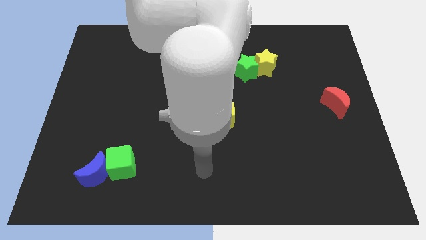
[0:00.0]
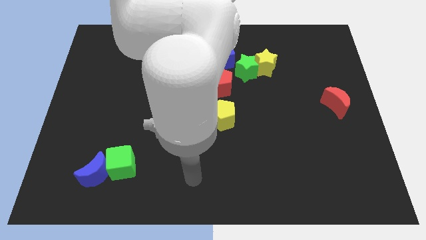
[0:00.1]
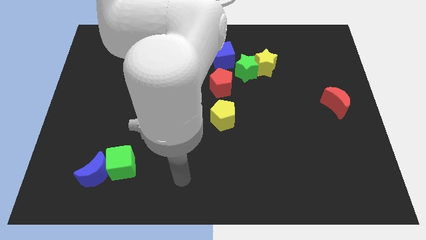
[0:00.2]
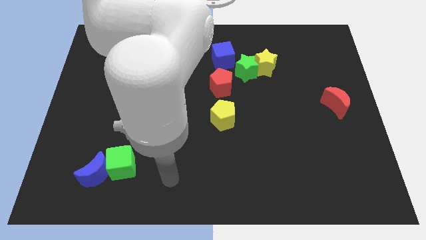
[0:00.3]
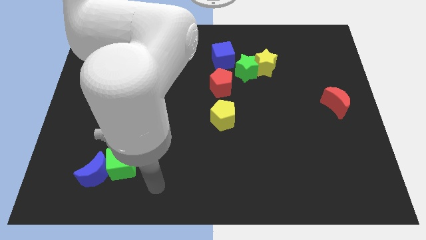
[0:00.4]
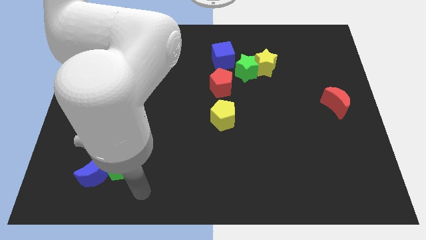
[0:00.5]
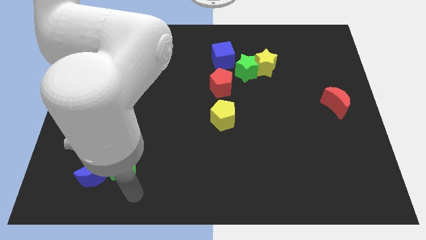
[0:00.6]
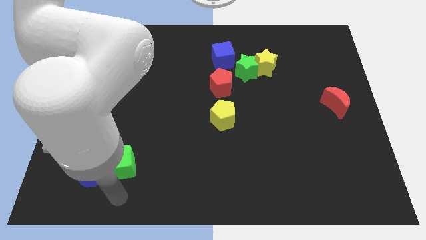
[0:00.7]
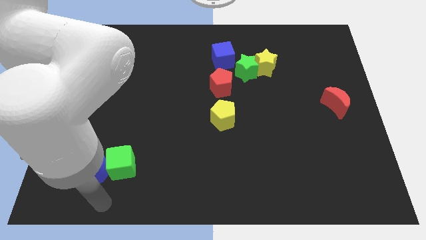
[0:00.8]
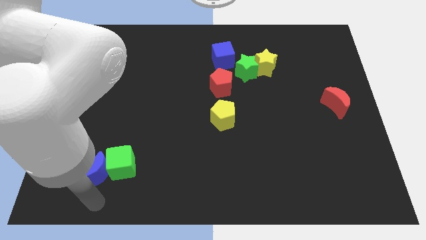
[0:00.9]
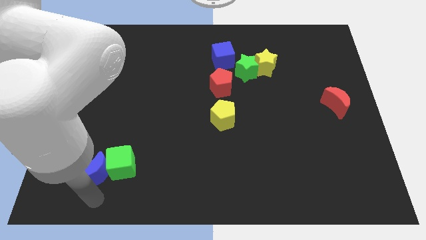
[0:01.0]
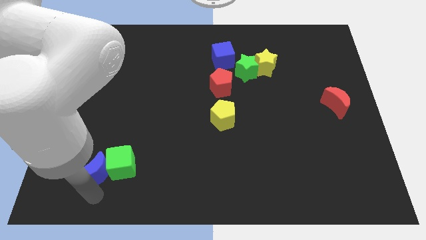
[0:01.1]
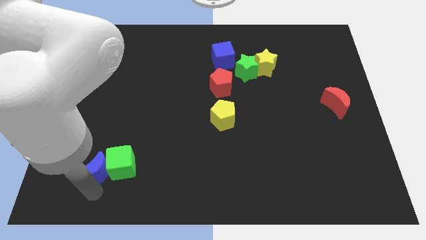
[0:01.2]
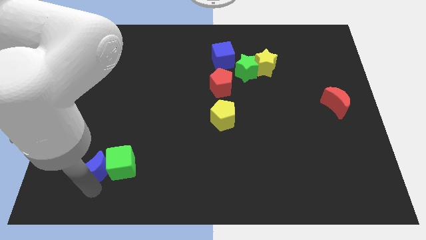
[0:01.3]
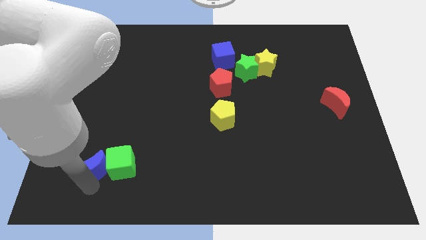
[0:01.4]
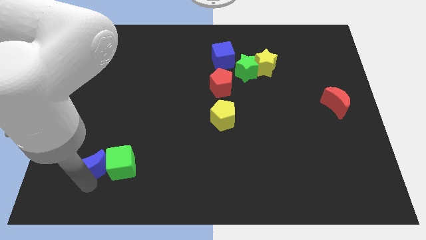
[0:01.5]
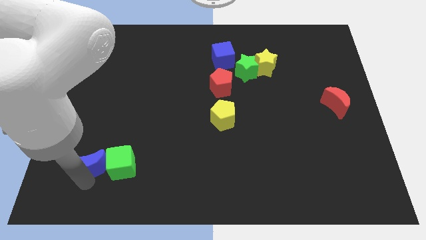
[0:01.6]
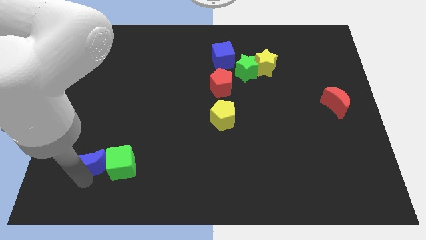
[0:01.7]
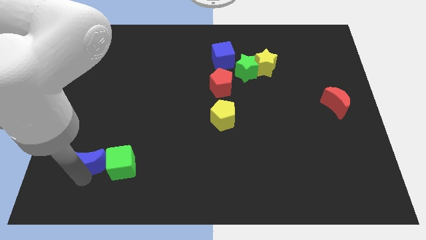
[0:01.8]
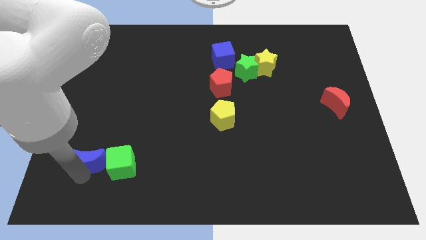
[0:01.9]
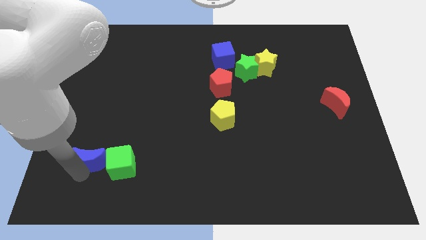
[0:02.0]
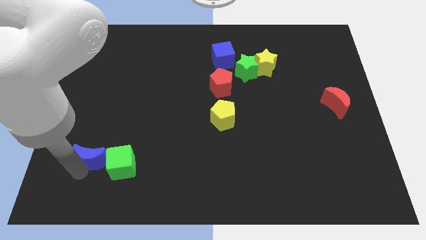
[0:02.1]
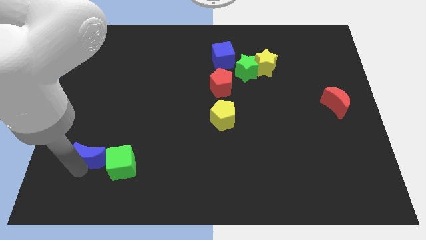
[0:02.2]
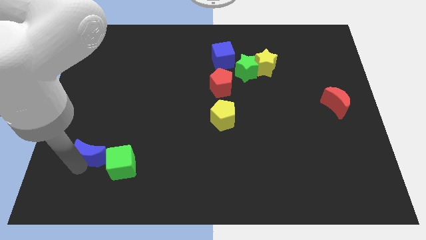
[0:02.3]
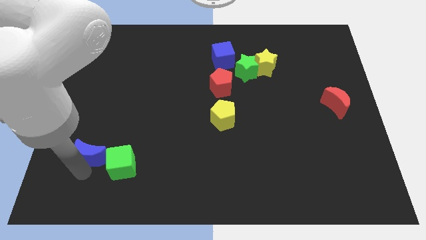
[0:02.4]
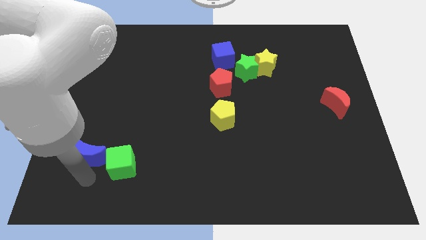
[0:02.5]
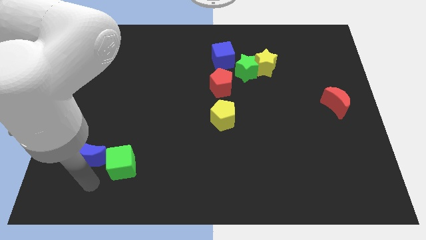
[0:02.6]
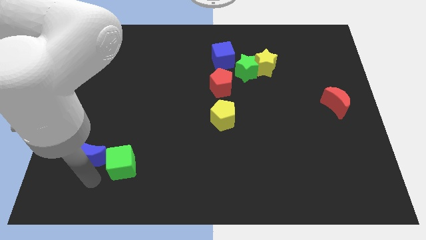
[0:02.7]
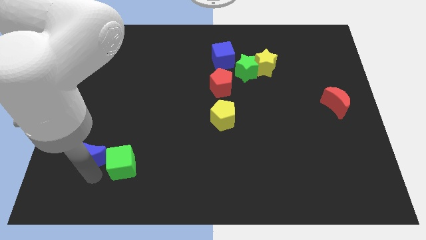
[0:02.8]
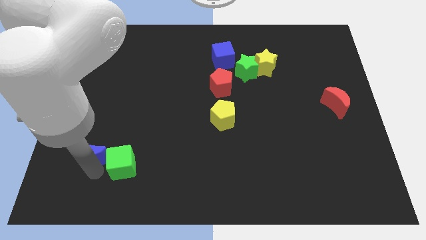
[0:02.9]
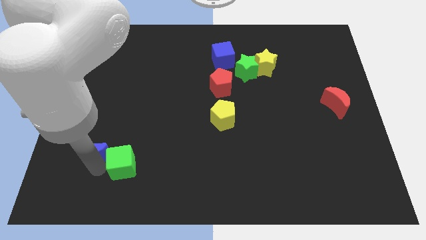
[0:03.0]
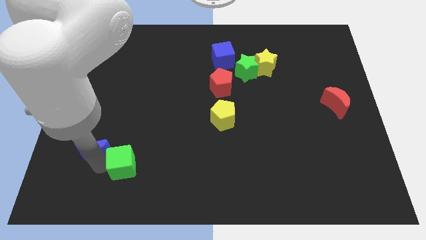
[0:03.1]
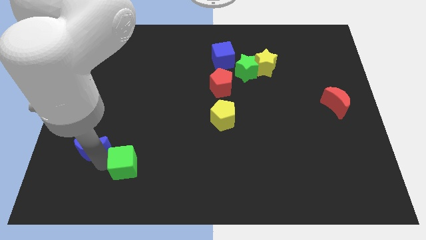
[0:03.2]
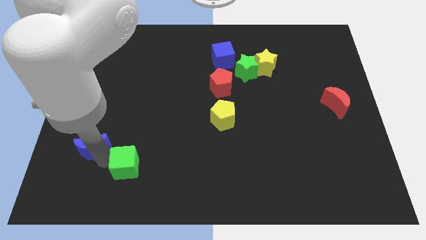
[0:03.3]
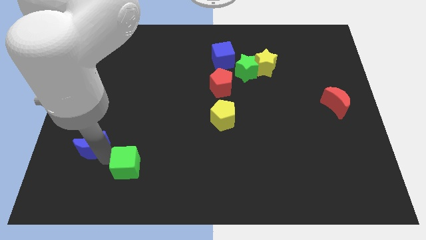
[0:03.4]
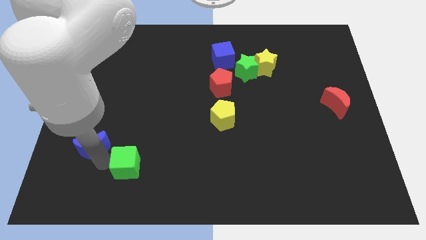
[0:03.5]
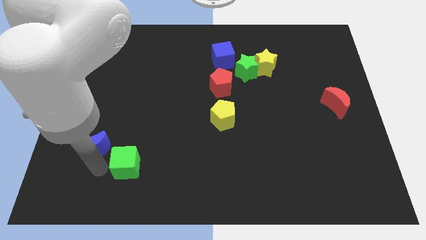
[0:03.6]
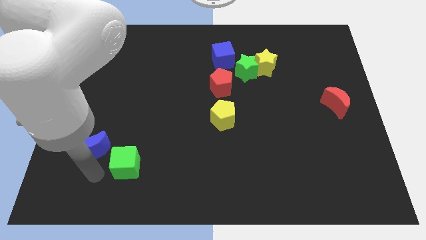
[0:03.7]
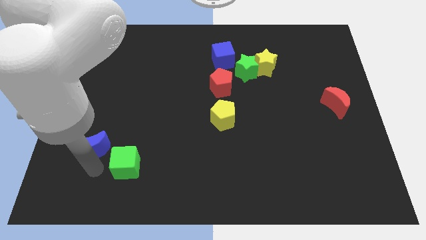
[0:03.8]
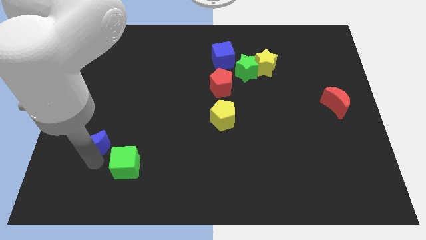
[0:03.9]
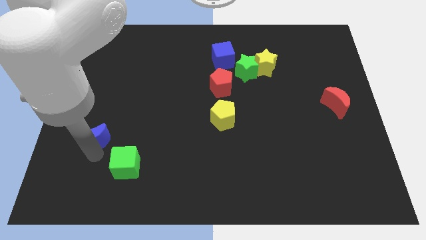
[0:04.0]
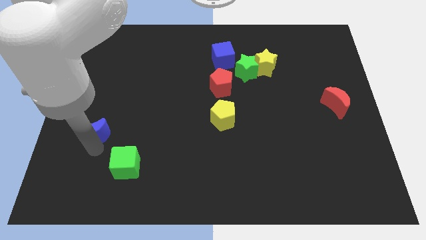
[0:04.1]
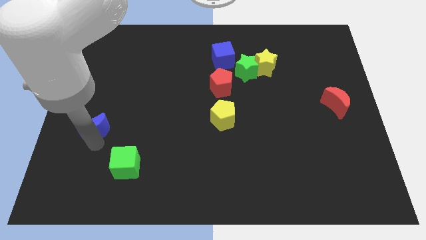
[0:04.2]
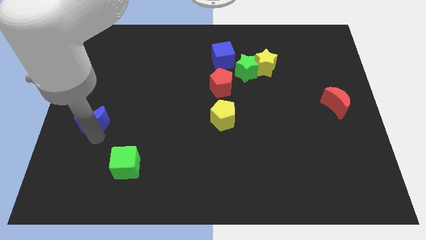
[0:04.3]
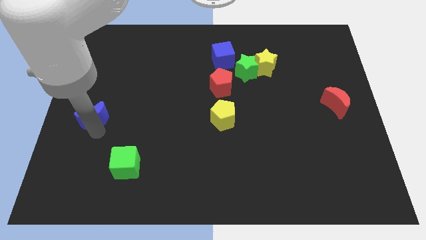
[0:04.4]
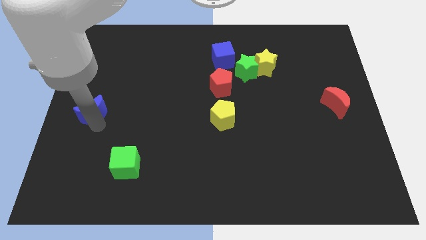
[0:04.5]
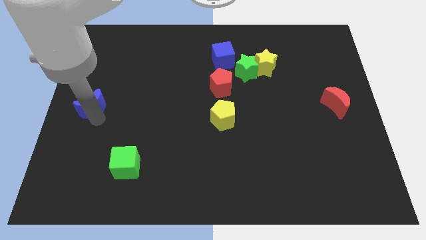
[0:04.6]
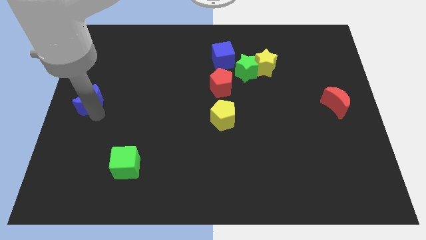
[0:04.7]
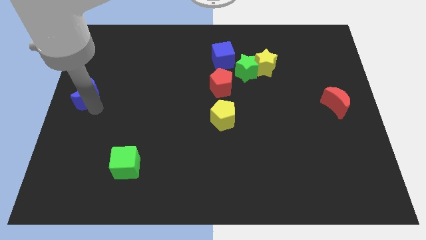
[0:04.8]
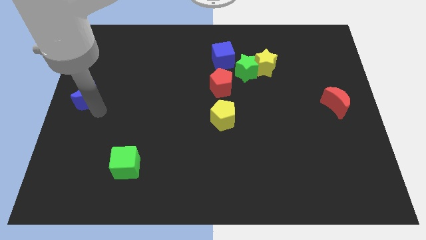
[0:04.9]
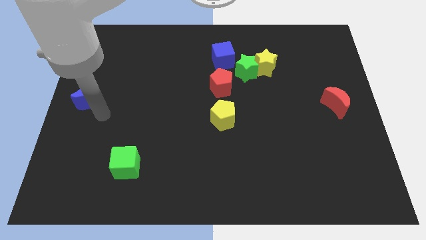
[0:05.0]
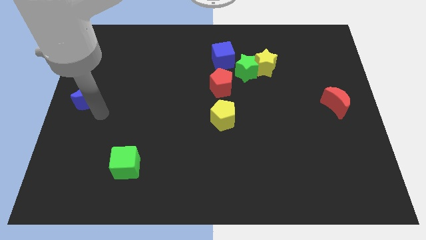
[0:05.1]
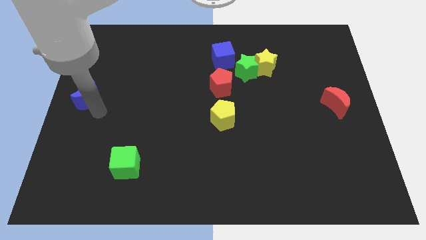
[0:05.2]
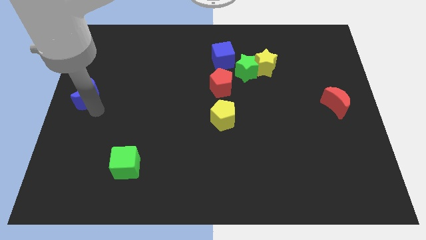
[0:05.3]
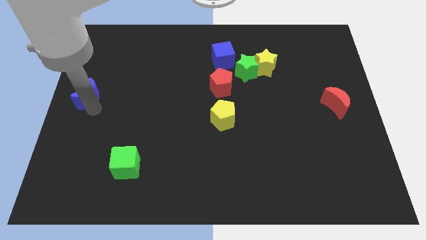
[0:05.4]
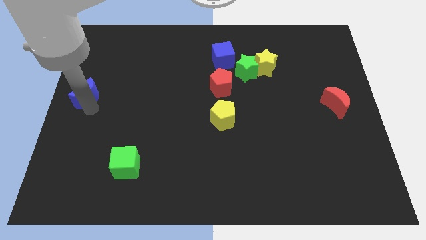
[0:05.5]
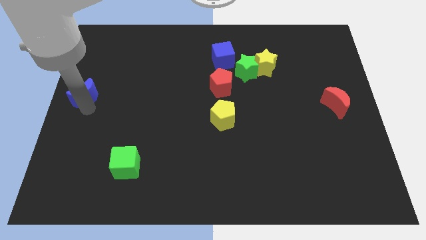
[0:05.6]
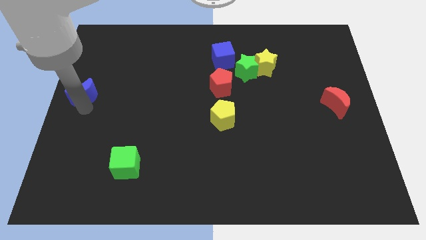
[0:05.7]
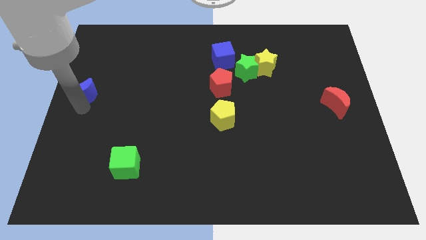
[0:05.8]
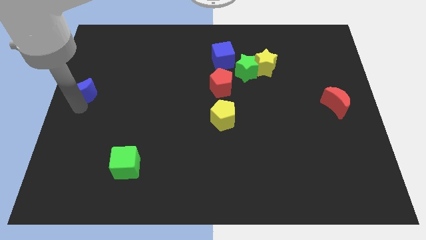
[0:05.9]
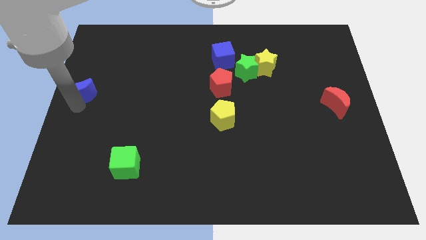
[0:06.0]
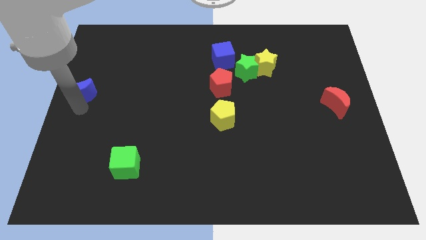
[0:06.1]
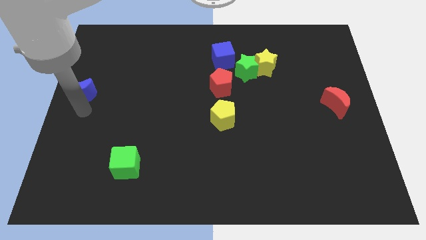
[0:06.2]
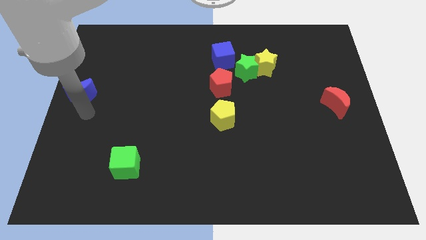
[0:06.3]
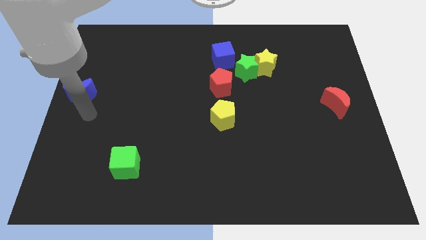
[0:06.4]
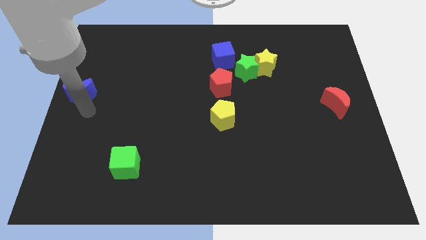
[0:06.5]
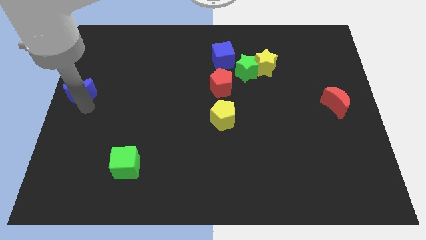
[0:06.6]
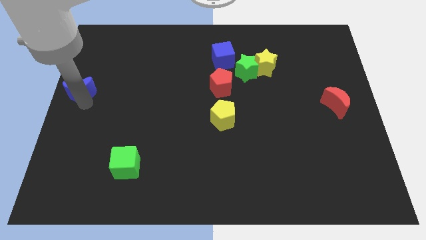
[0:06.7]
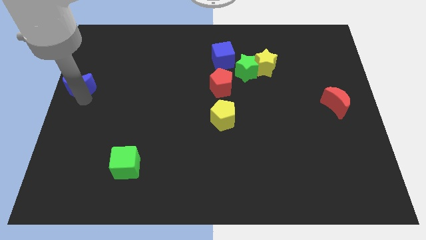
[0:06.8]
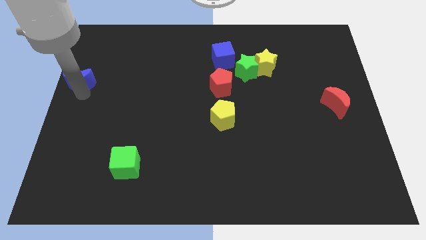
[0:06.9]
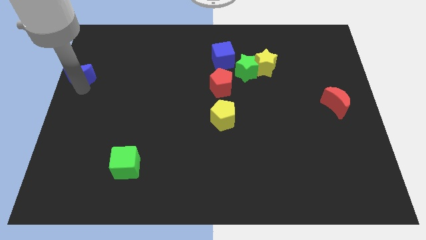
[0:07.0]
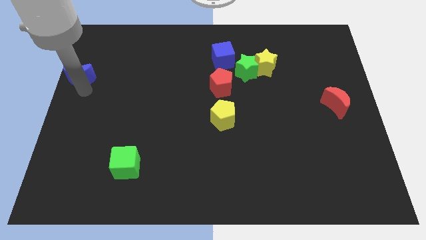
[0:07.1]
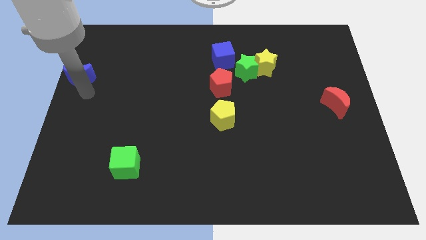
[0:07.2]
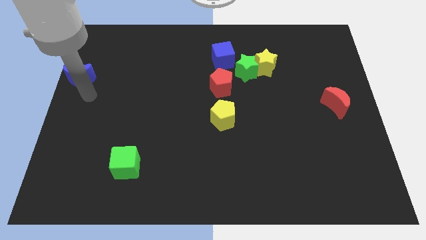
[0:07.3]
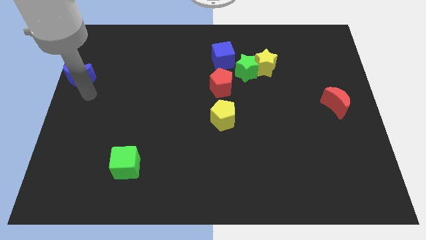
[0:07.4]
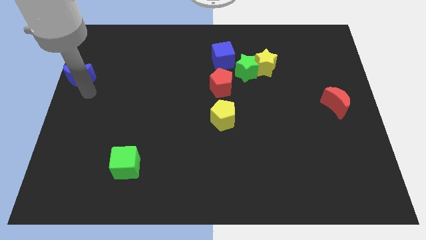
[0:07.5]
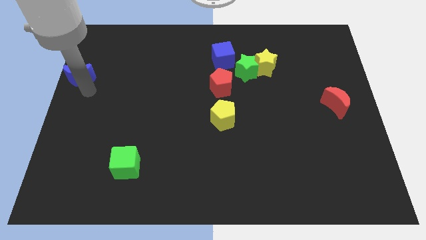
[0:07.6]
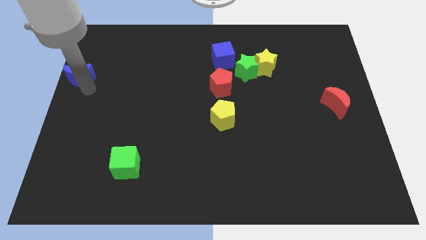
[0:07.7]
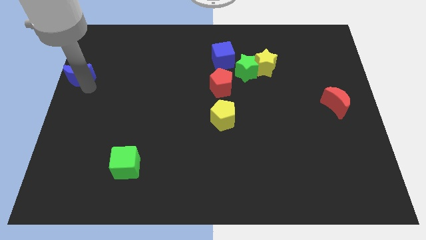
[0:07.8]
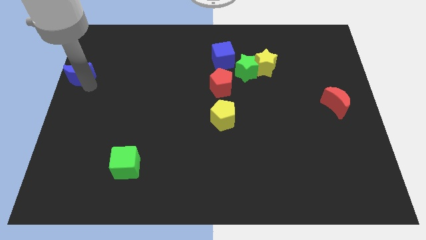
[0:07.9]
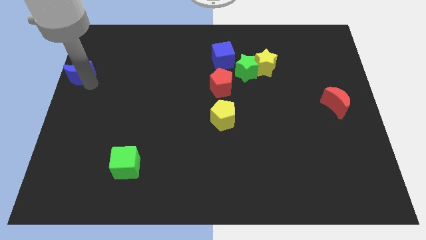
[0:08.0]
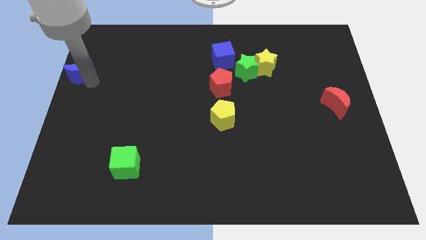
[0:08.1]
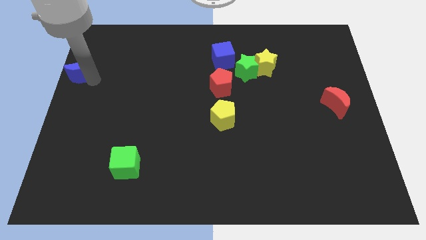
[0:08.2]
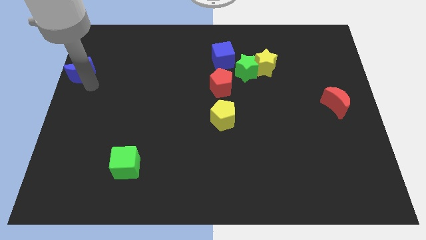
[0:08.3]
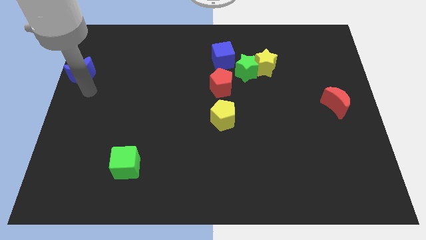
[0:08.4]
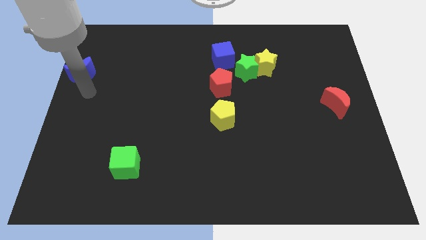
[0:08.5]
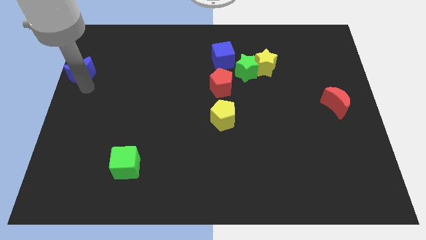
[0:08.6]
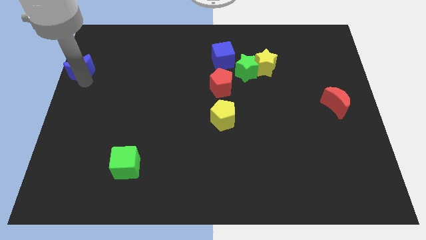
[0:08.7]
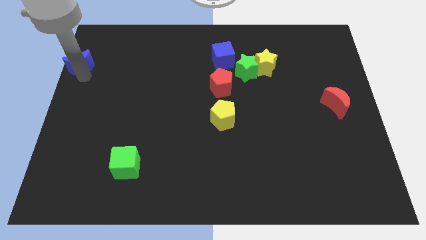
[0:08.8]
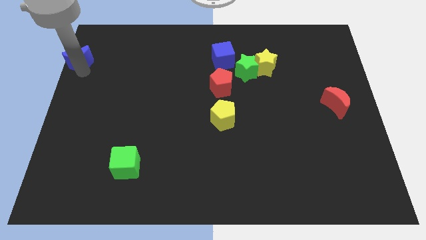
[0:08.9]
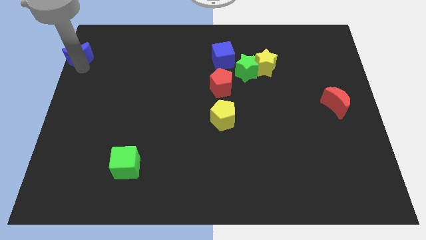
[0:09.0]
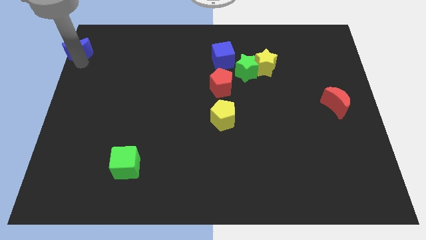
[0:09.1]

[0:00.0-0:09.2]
push the blue moon to the top left
